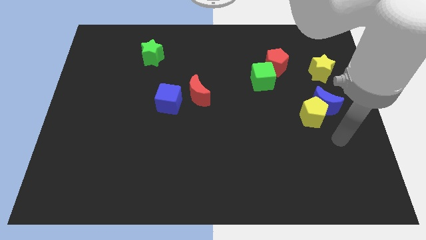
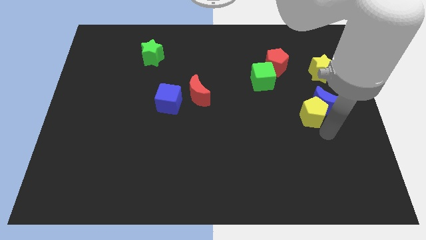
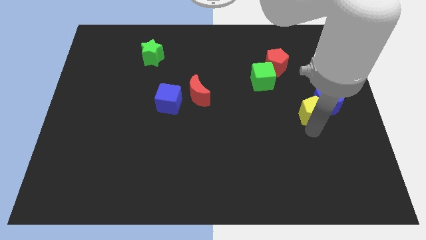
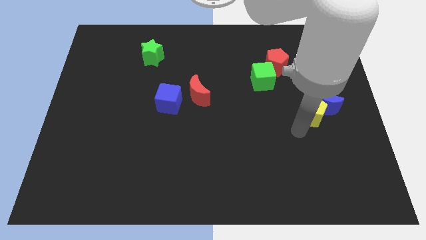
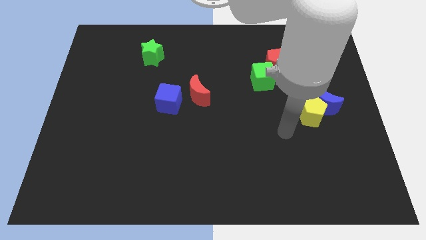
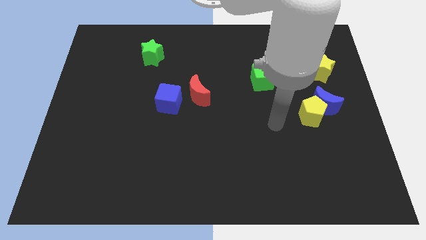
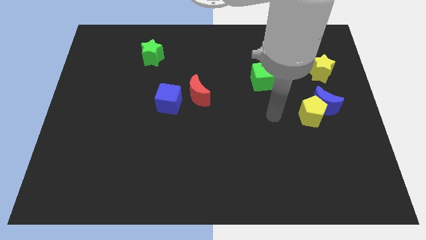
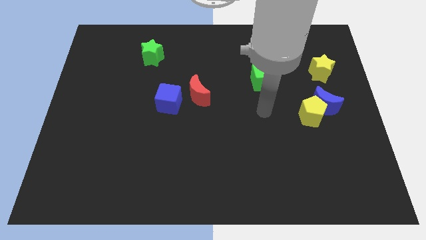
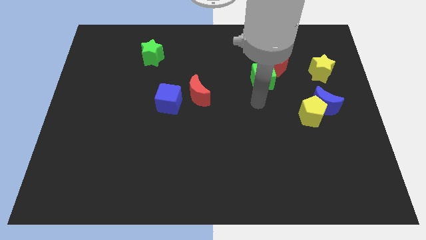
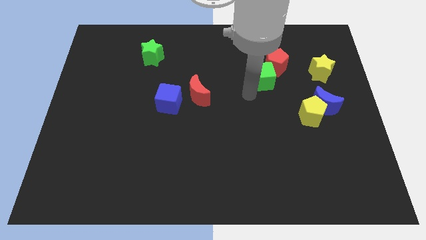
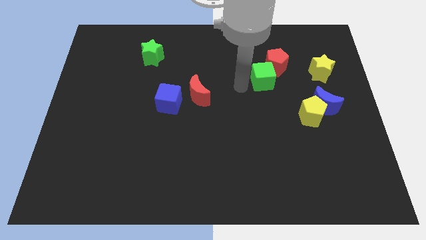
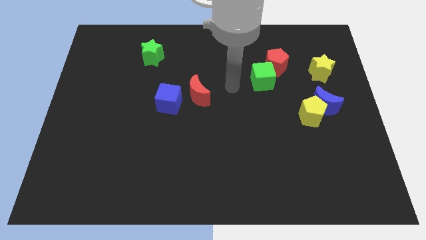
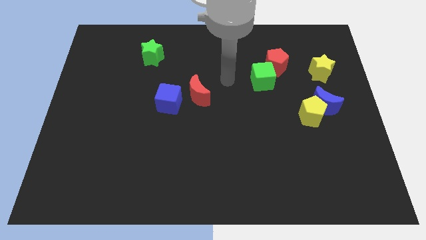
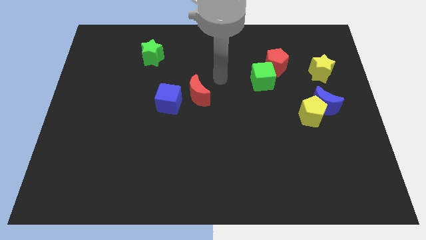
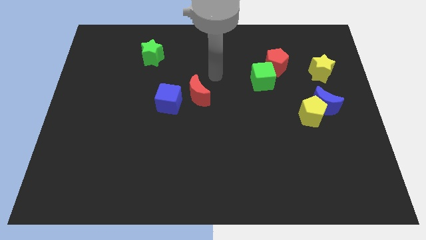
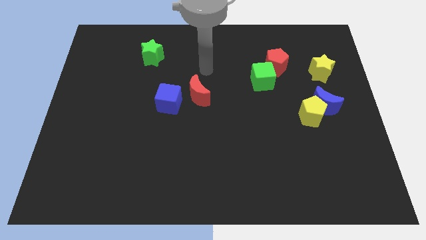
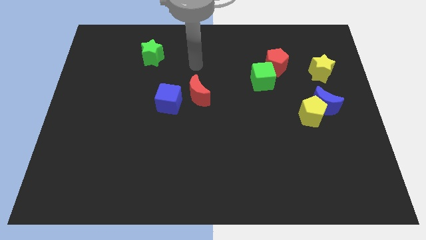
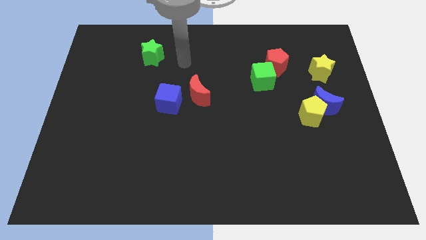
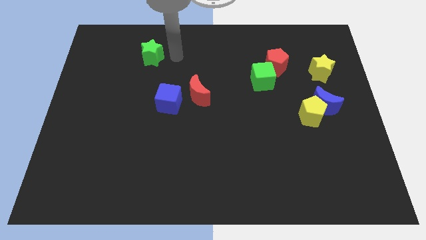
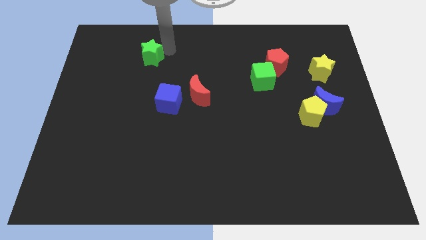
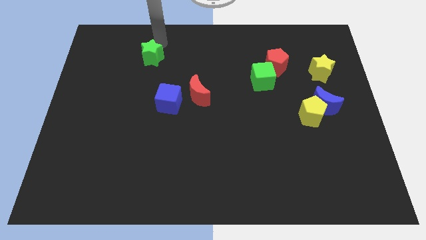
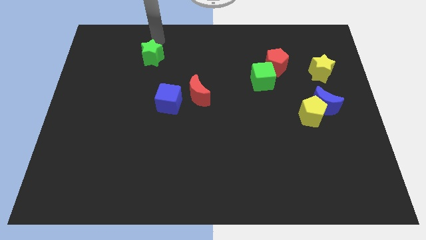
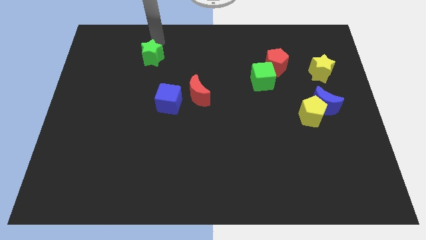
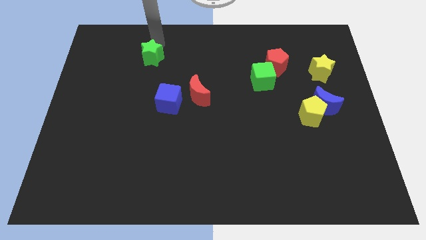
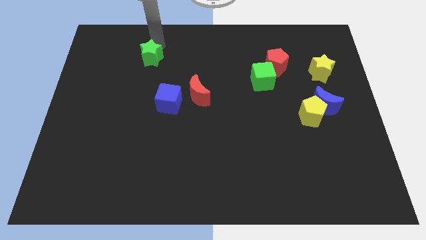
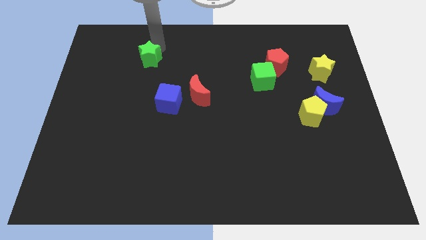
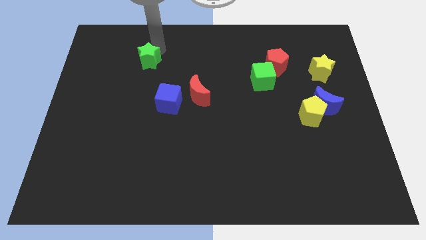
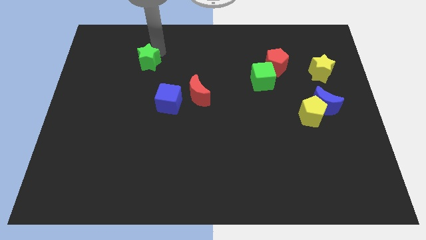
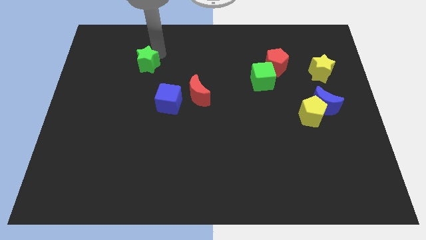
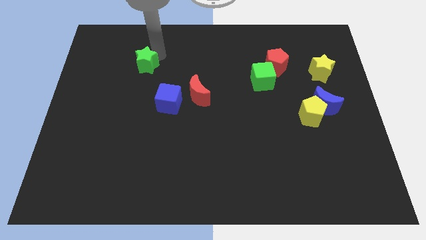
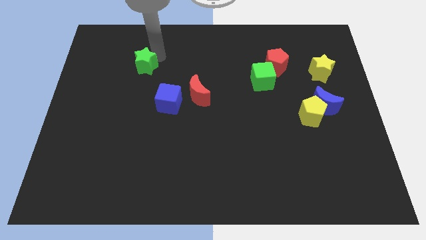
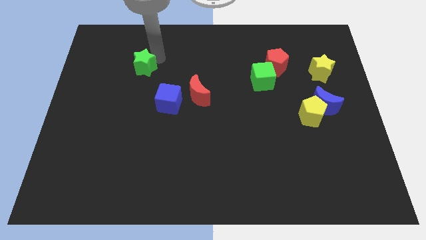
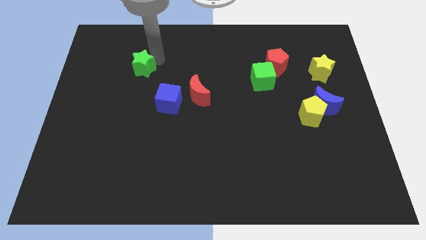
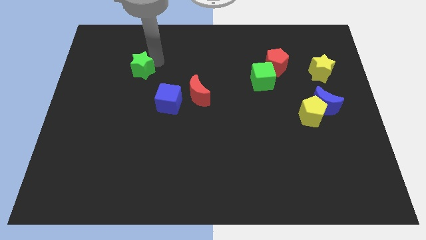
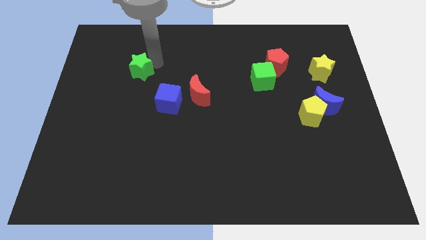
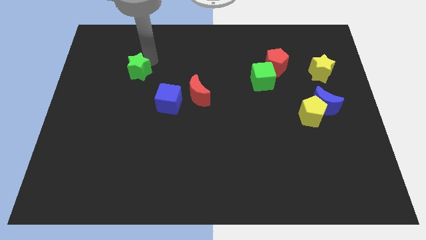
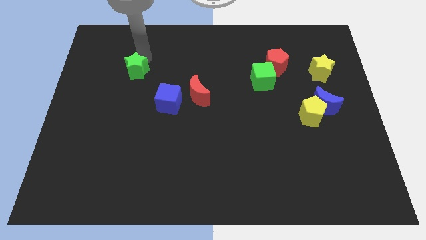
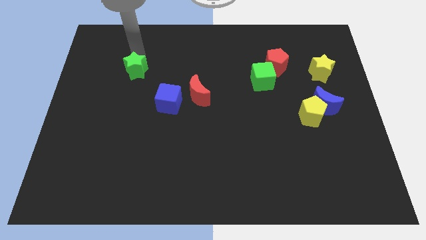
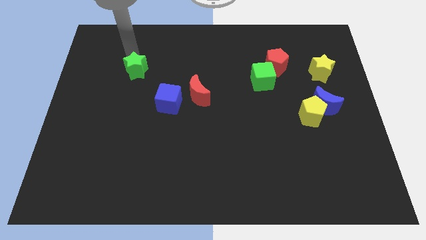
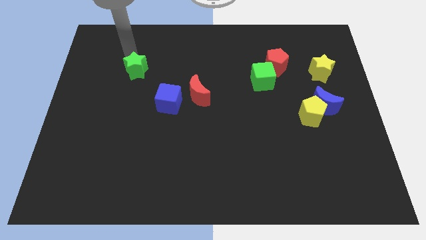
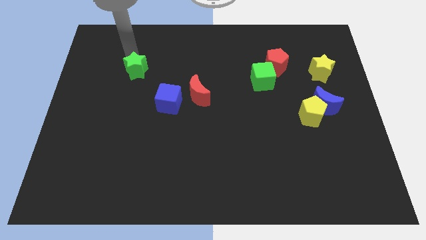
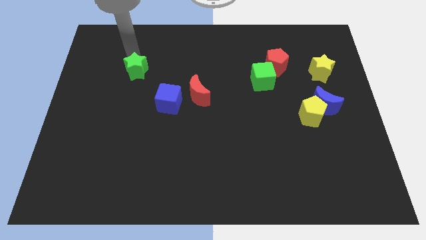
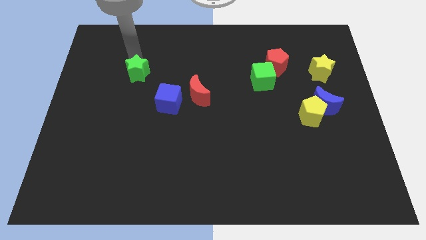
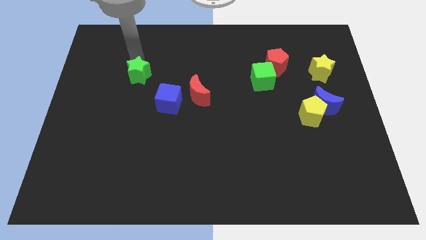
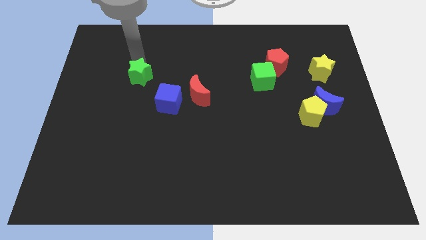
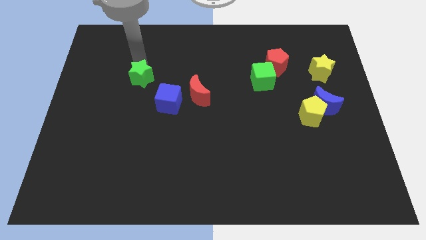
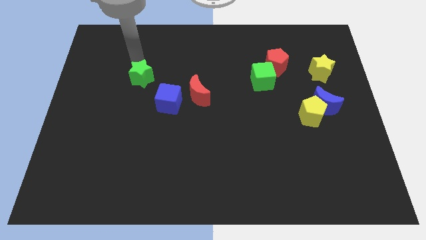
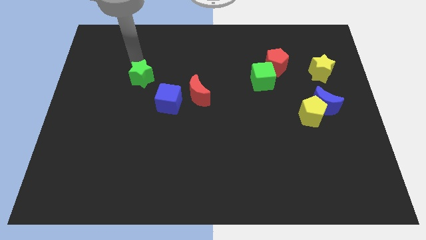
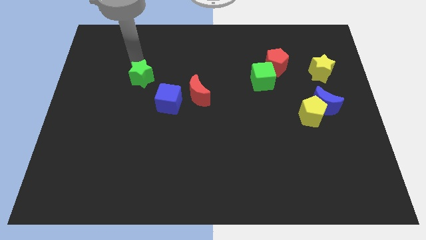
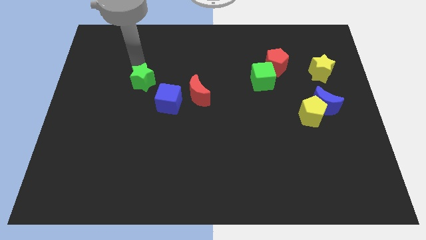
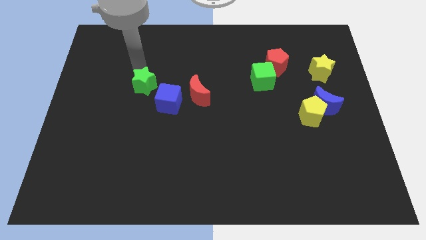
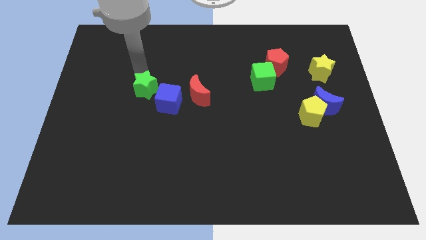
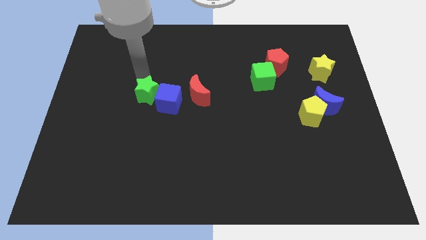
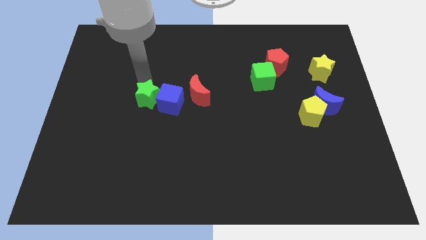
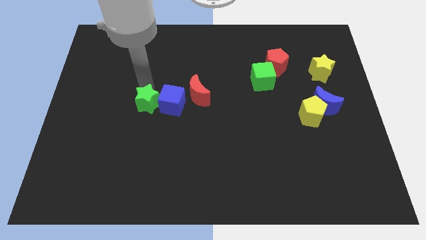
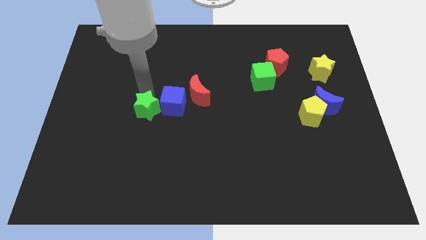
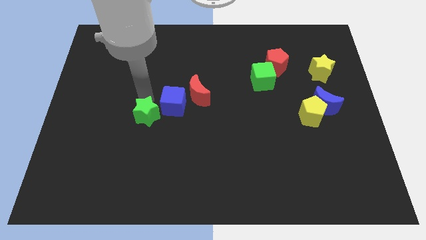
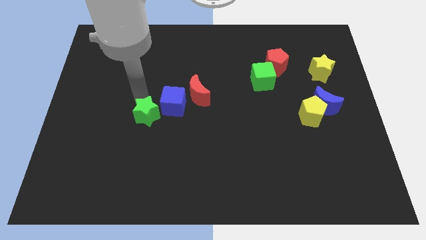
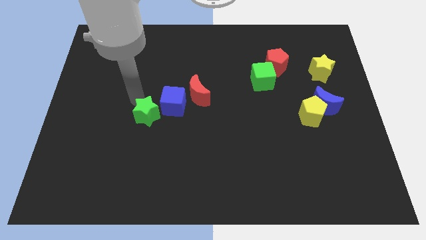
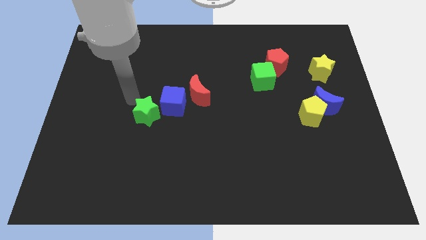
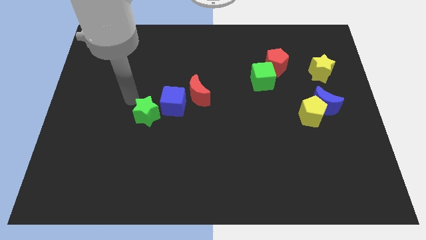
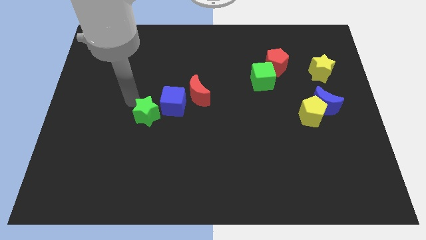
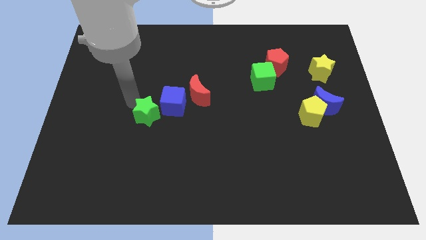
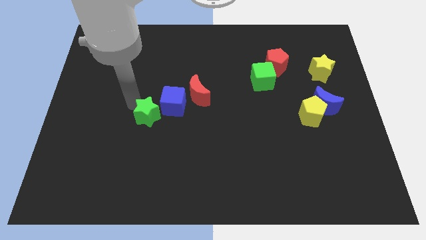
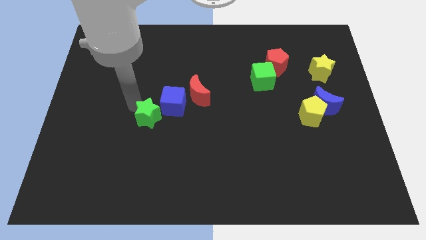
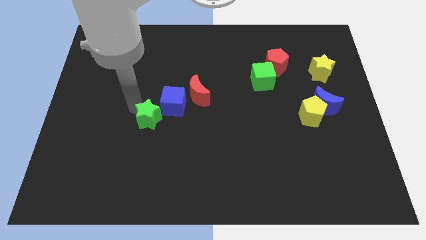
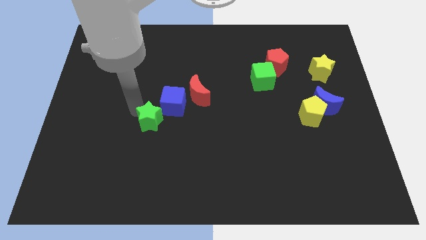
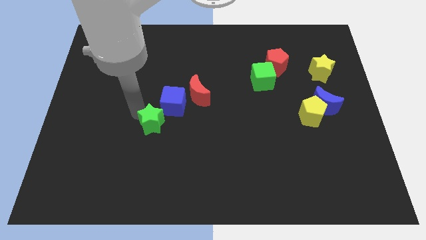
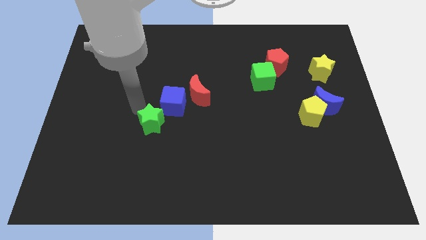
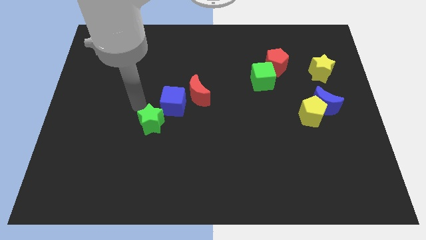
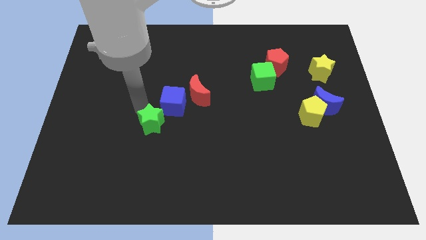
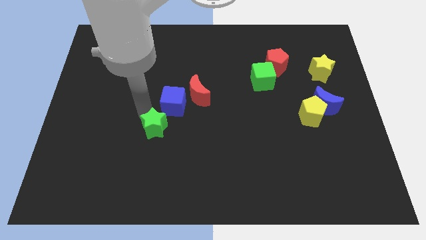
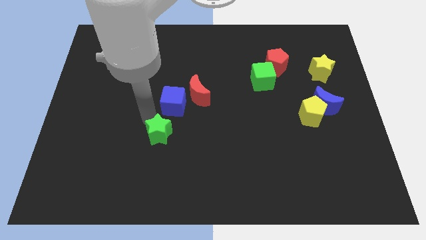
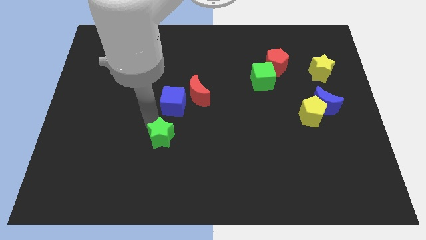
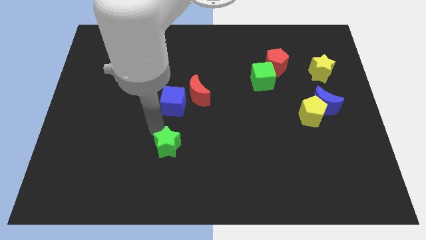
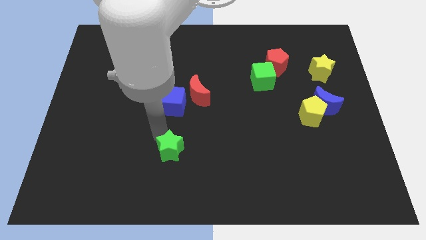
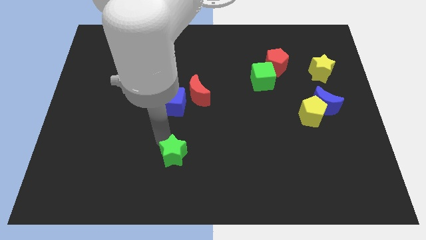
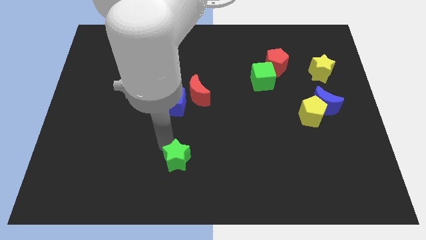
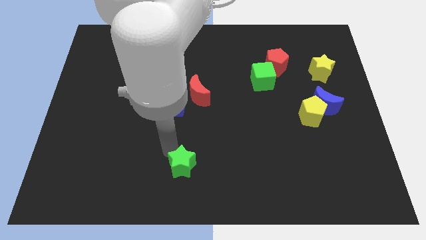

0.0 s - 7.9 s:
move the green star to the bottom side
